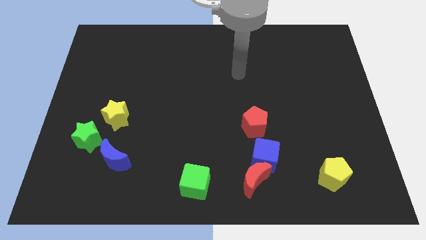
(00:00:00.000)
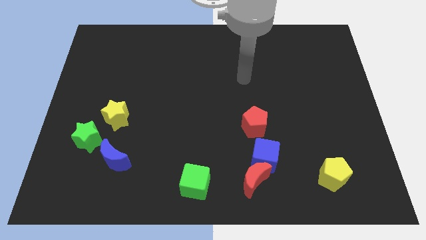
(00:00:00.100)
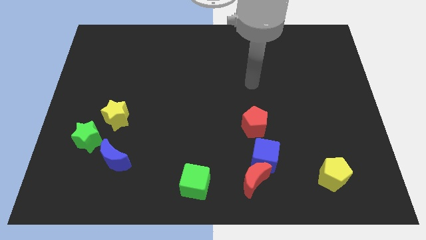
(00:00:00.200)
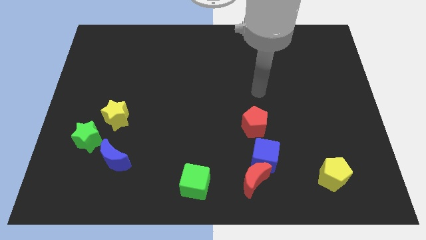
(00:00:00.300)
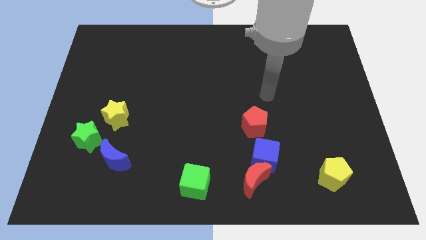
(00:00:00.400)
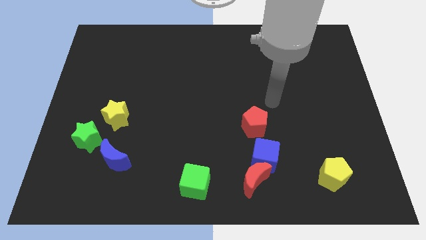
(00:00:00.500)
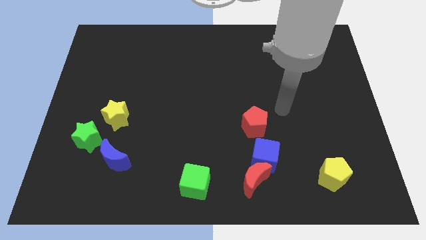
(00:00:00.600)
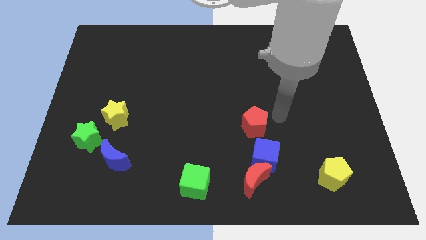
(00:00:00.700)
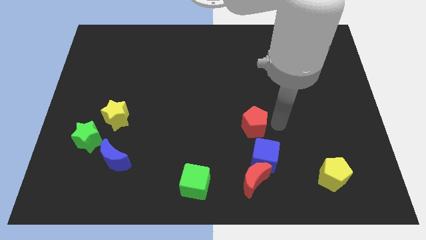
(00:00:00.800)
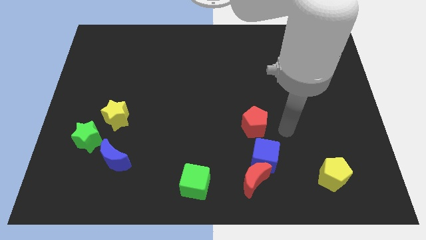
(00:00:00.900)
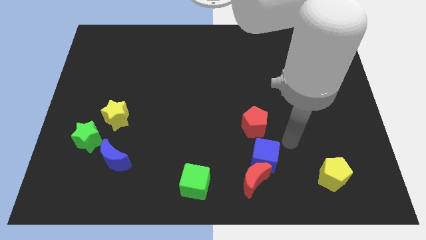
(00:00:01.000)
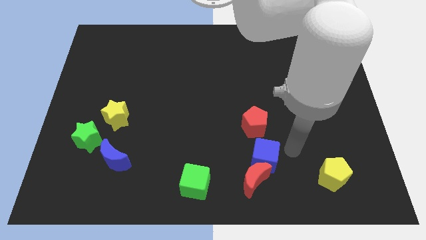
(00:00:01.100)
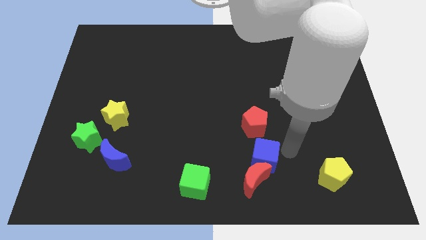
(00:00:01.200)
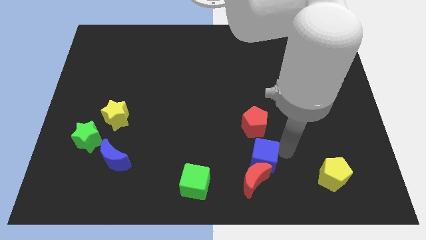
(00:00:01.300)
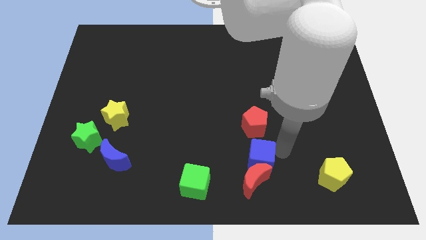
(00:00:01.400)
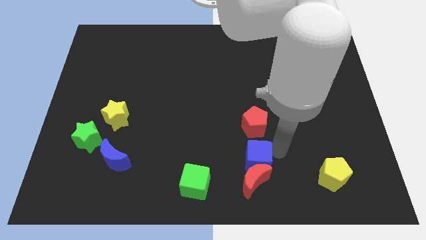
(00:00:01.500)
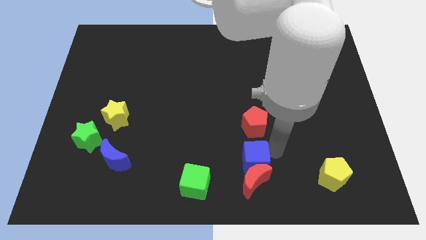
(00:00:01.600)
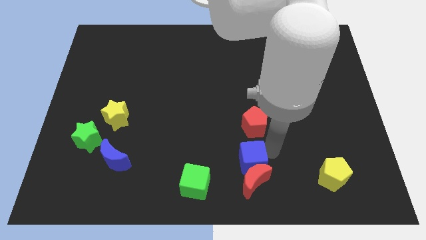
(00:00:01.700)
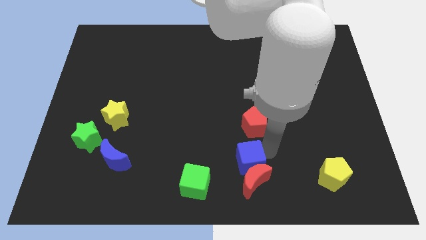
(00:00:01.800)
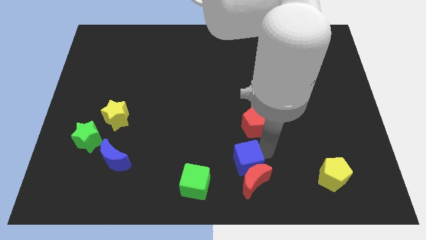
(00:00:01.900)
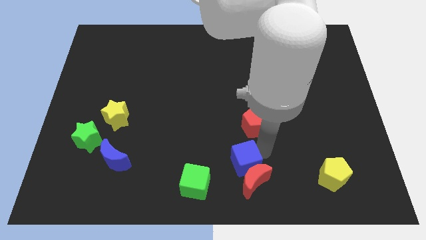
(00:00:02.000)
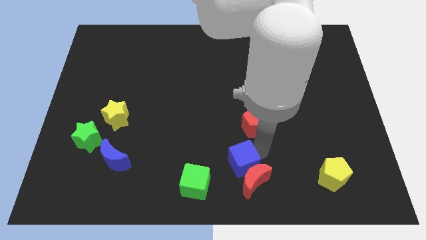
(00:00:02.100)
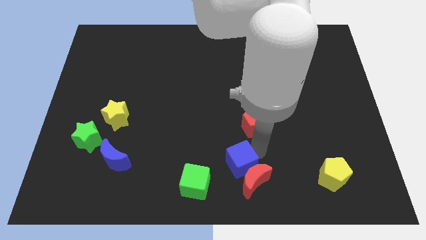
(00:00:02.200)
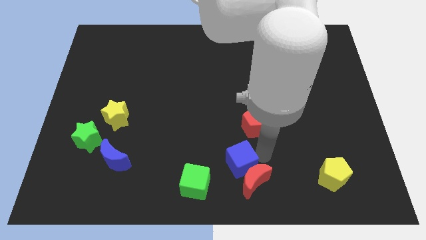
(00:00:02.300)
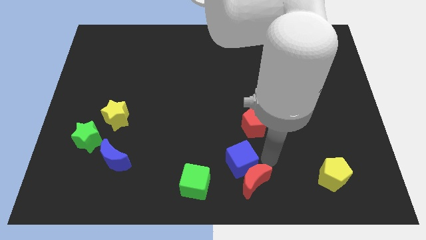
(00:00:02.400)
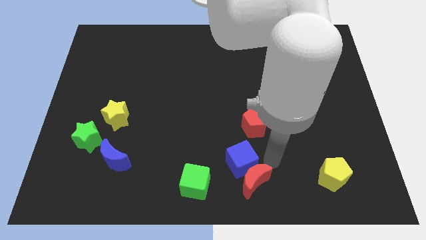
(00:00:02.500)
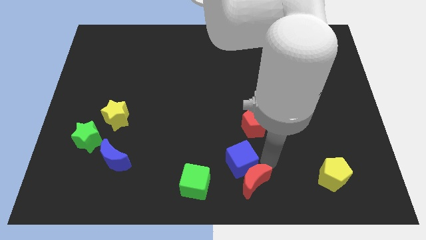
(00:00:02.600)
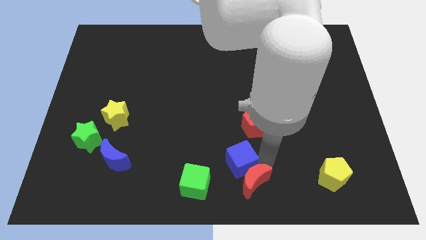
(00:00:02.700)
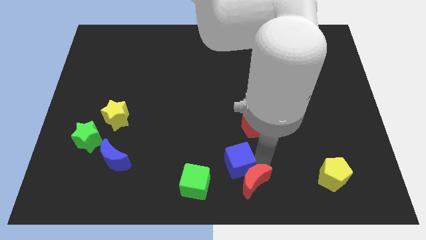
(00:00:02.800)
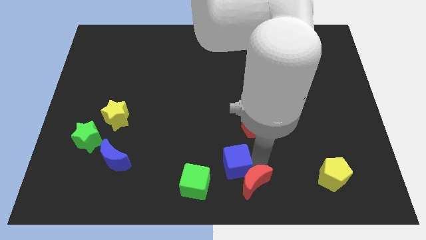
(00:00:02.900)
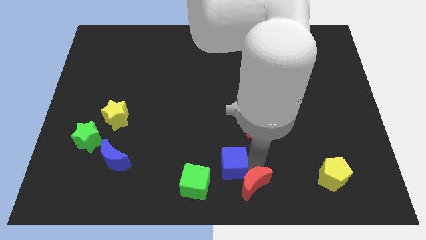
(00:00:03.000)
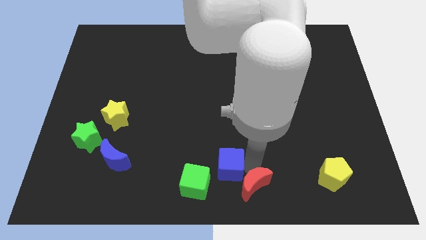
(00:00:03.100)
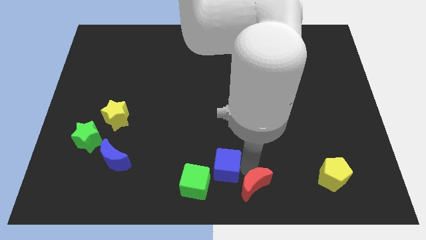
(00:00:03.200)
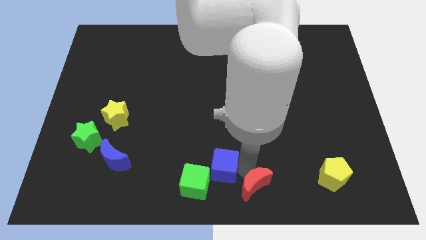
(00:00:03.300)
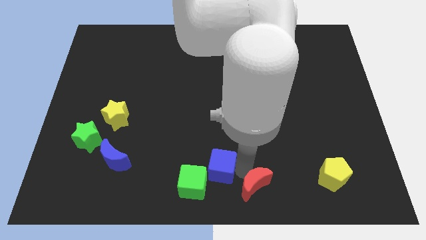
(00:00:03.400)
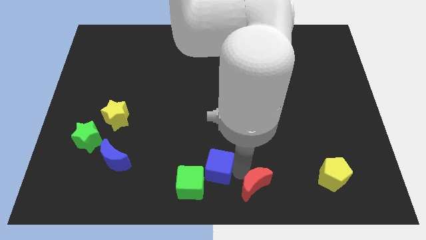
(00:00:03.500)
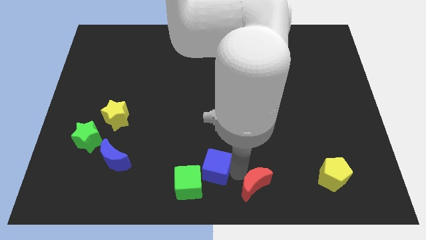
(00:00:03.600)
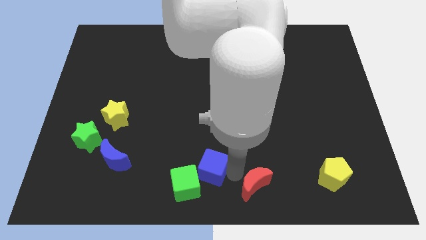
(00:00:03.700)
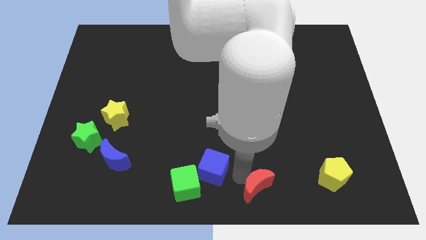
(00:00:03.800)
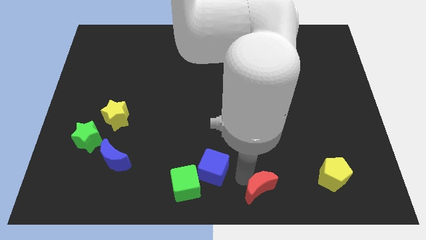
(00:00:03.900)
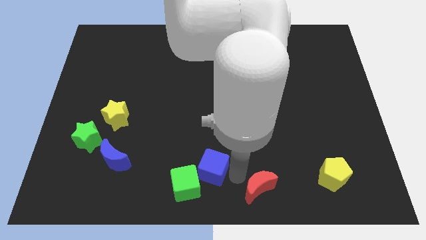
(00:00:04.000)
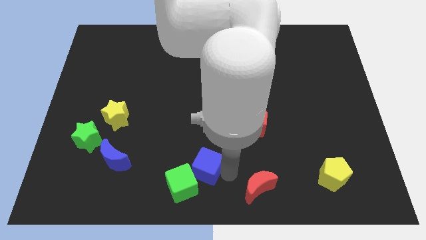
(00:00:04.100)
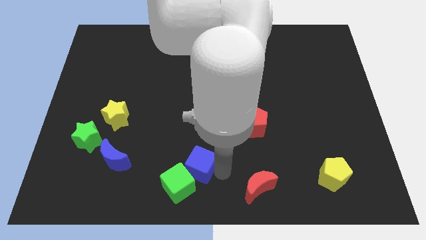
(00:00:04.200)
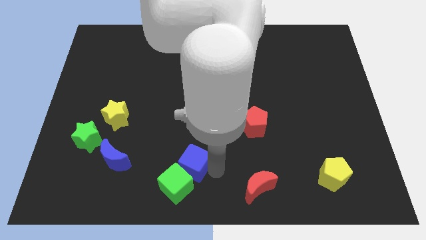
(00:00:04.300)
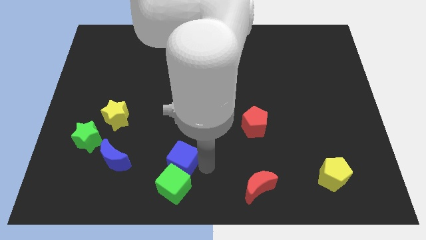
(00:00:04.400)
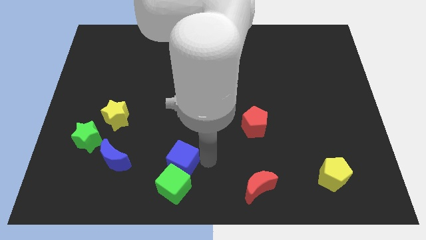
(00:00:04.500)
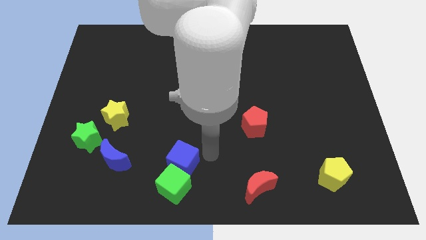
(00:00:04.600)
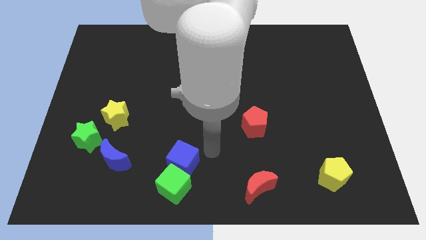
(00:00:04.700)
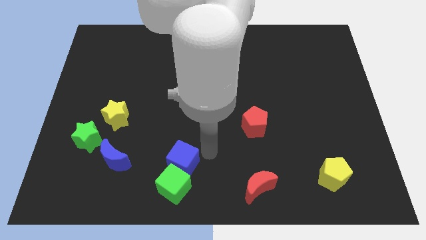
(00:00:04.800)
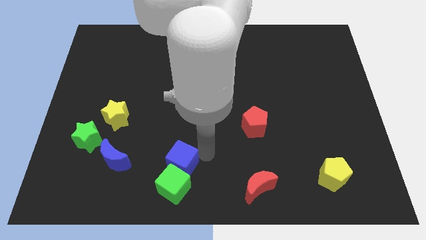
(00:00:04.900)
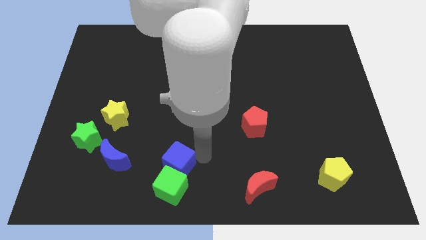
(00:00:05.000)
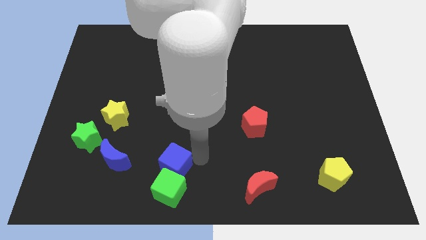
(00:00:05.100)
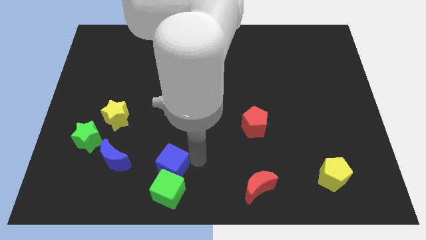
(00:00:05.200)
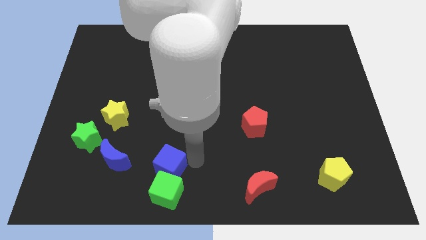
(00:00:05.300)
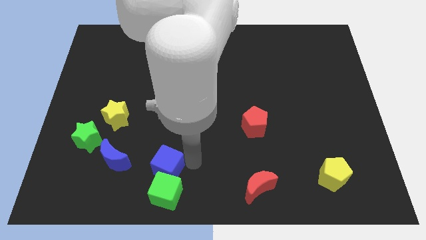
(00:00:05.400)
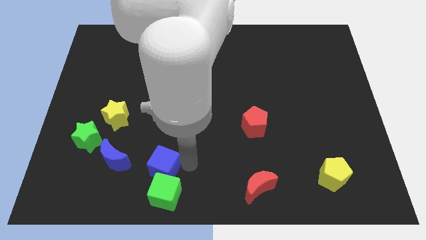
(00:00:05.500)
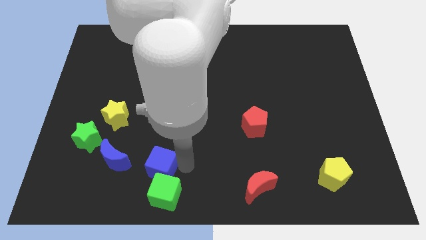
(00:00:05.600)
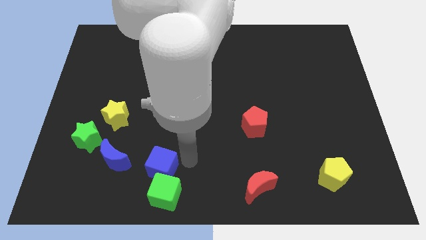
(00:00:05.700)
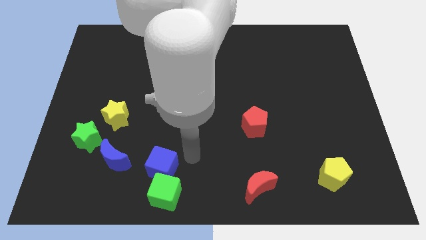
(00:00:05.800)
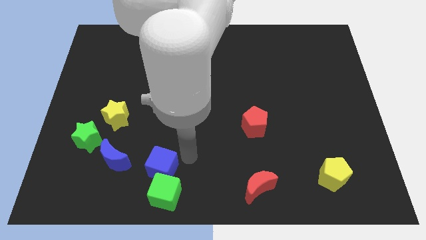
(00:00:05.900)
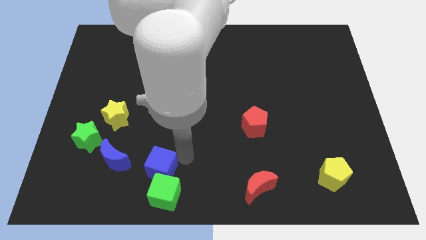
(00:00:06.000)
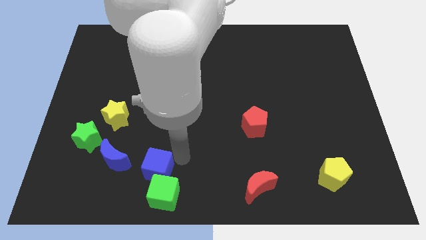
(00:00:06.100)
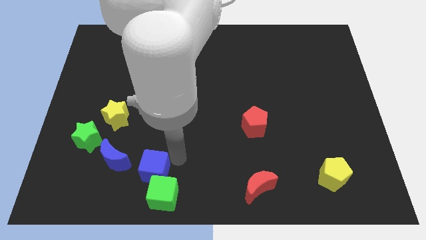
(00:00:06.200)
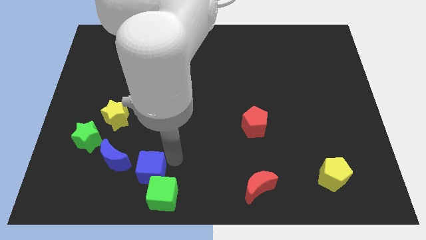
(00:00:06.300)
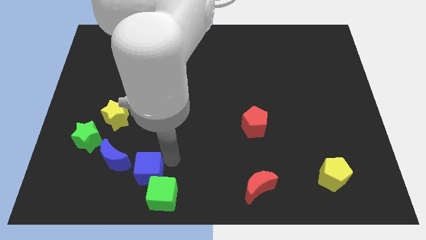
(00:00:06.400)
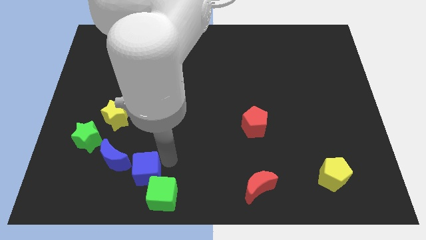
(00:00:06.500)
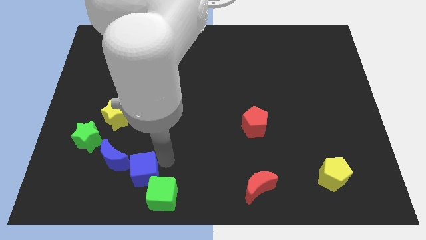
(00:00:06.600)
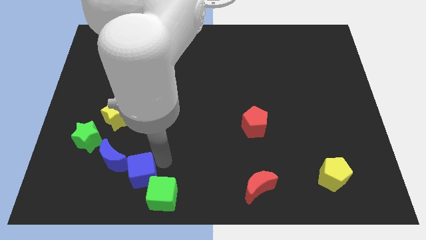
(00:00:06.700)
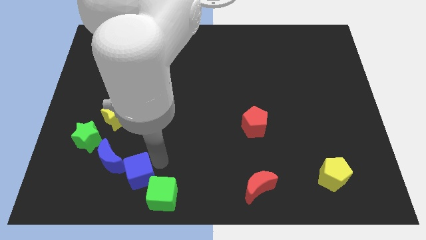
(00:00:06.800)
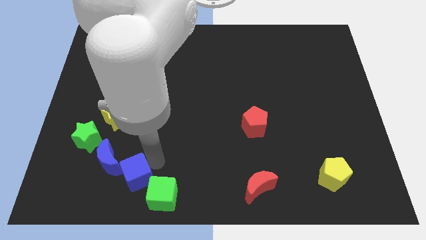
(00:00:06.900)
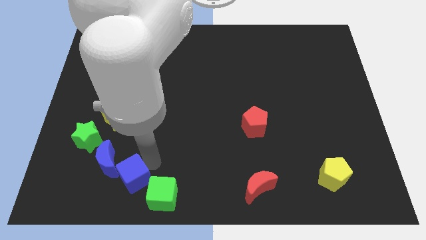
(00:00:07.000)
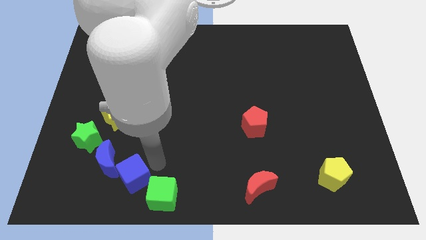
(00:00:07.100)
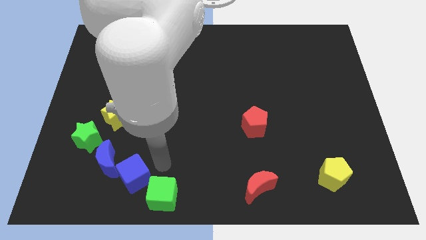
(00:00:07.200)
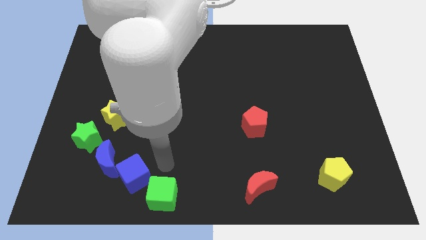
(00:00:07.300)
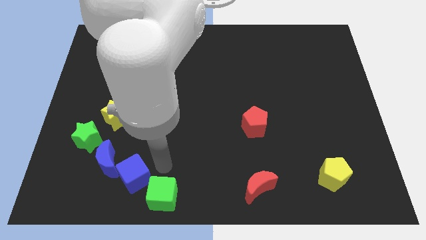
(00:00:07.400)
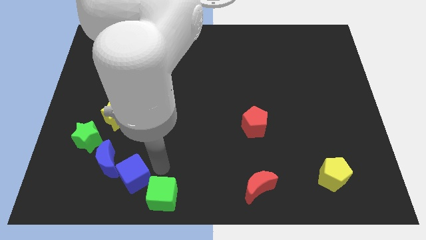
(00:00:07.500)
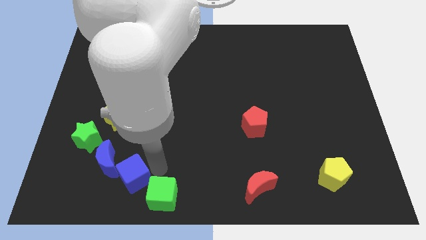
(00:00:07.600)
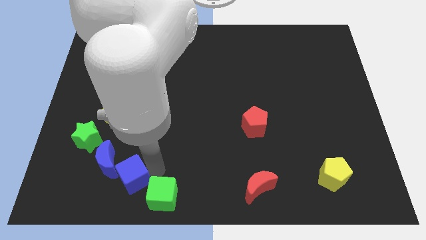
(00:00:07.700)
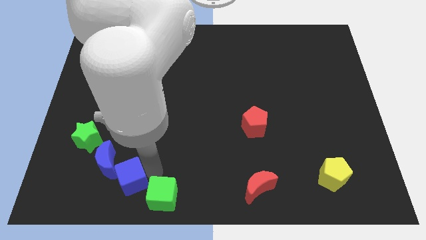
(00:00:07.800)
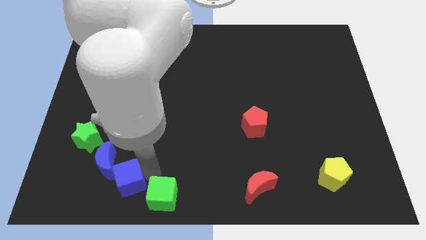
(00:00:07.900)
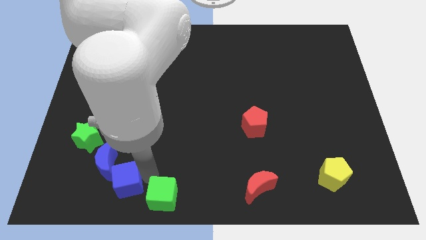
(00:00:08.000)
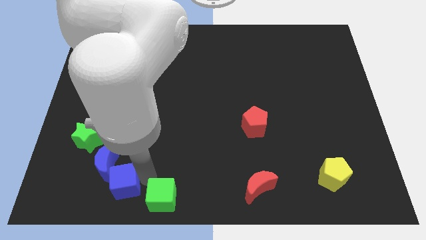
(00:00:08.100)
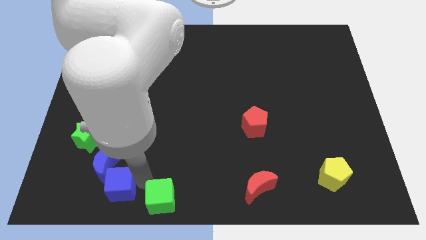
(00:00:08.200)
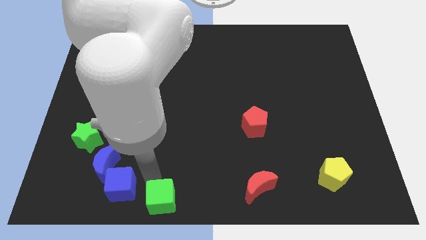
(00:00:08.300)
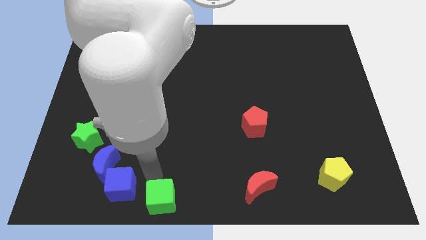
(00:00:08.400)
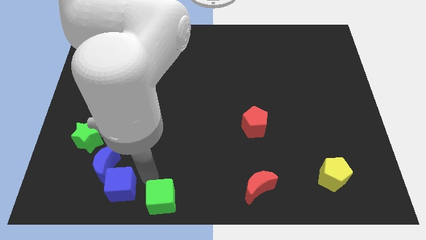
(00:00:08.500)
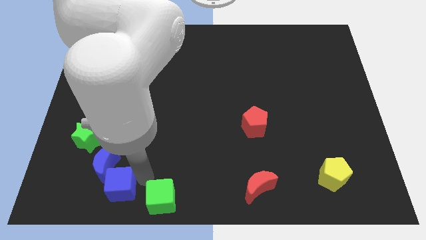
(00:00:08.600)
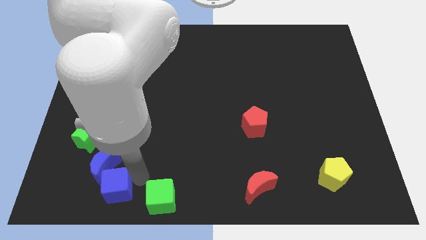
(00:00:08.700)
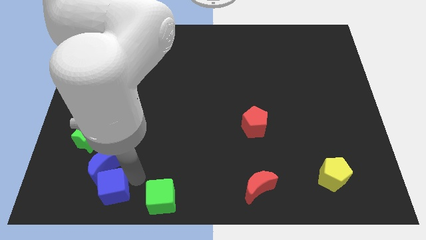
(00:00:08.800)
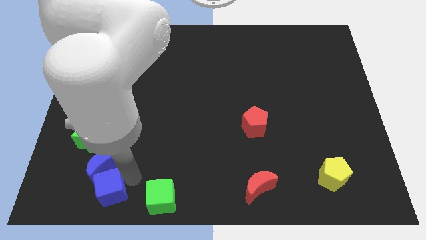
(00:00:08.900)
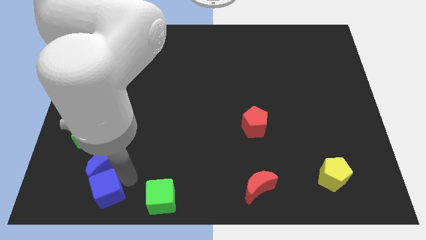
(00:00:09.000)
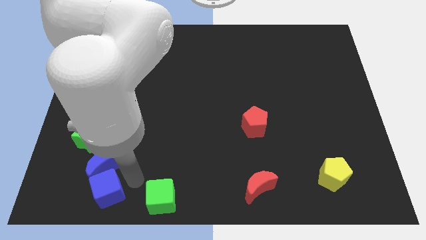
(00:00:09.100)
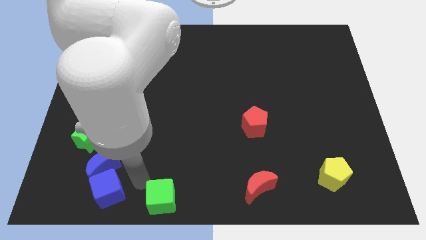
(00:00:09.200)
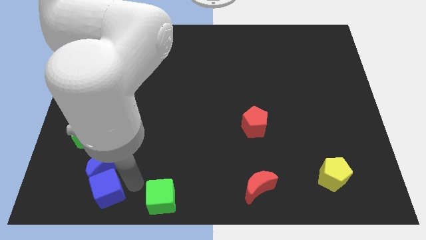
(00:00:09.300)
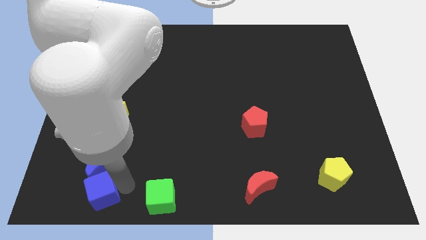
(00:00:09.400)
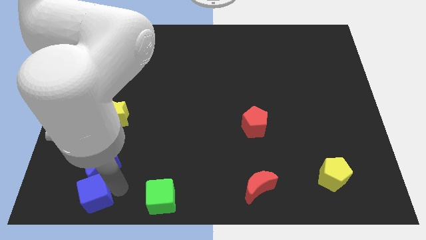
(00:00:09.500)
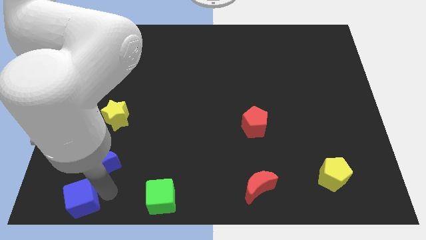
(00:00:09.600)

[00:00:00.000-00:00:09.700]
push the blue cube to the bottom left
